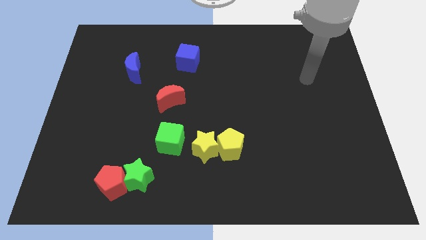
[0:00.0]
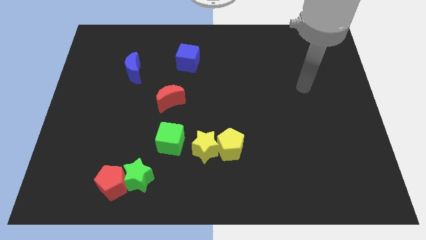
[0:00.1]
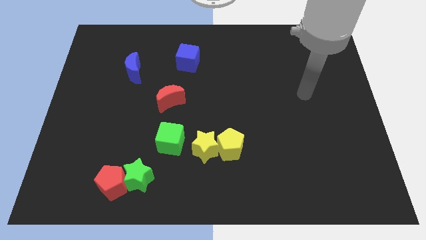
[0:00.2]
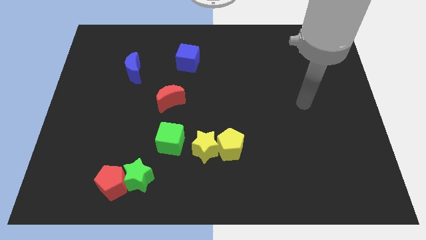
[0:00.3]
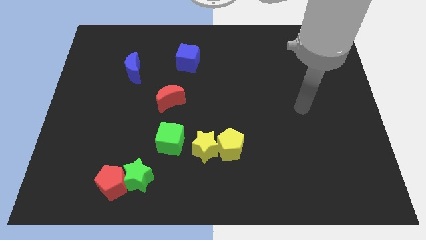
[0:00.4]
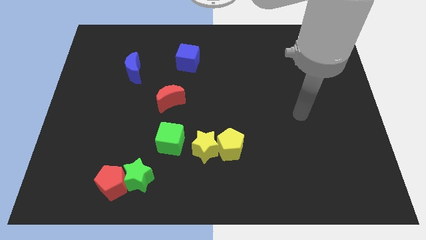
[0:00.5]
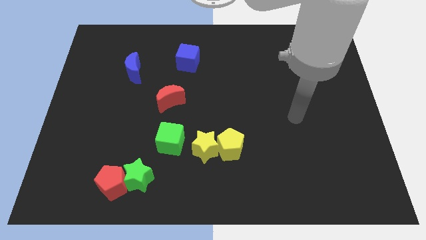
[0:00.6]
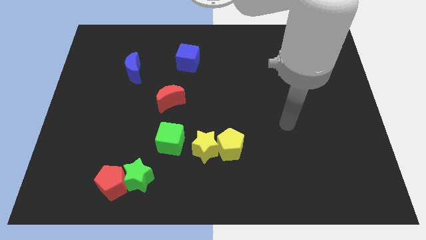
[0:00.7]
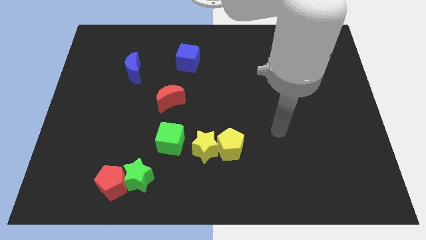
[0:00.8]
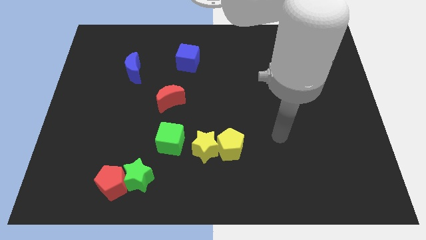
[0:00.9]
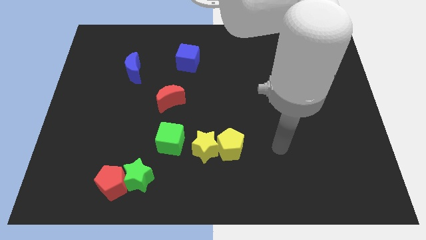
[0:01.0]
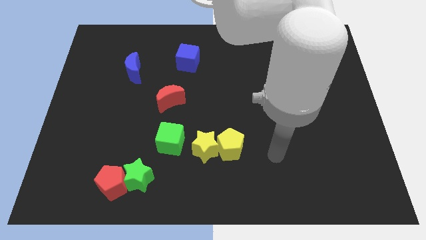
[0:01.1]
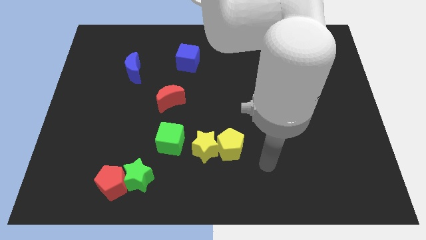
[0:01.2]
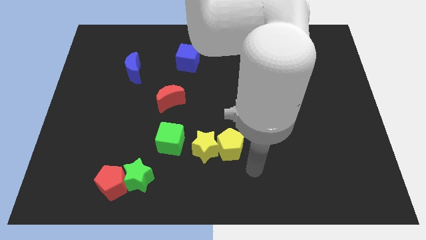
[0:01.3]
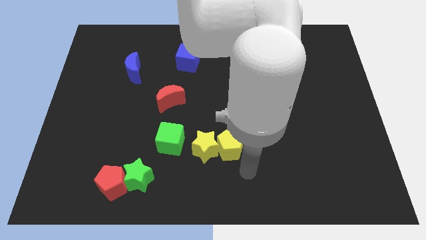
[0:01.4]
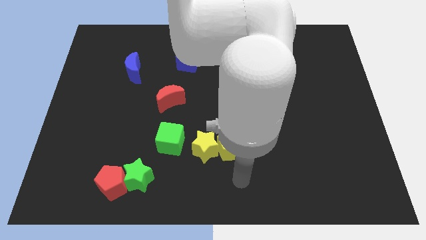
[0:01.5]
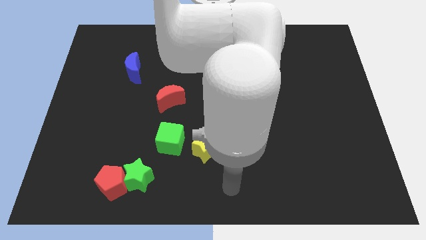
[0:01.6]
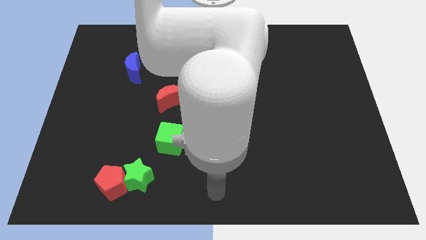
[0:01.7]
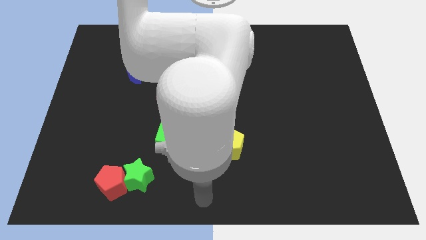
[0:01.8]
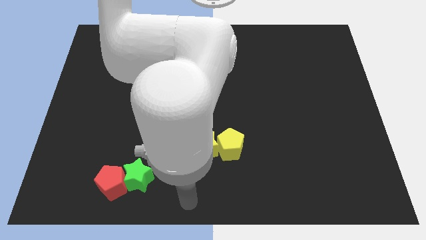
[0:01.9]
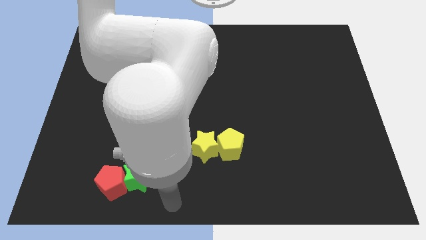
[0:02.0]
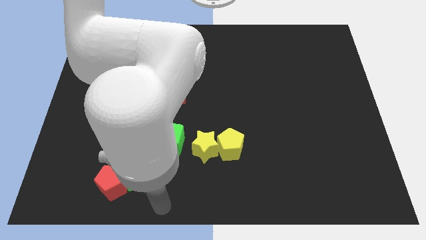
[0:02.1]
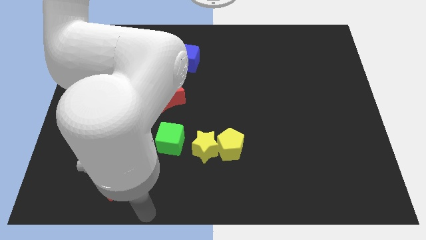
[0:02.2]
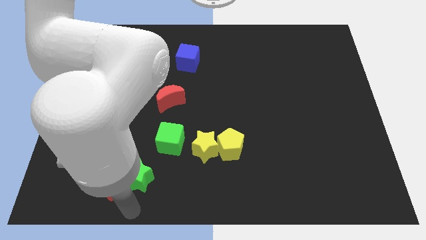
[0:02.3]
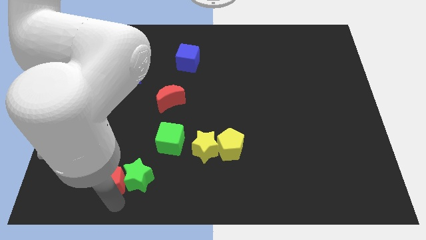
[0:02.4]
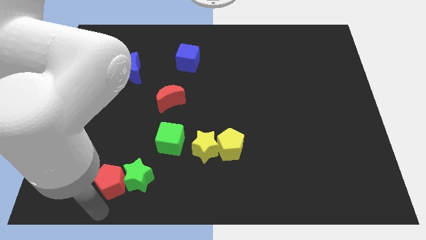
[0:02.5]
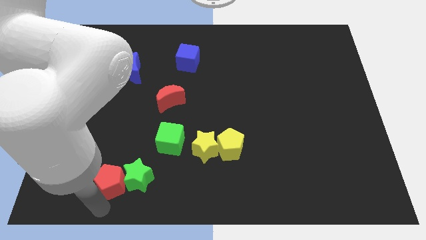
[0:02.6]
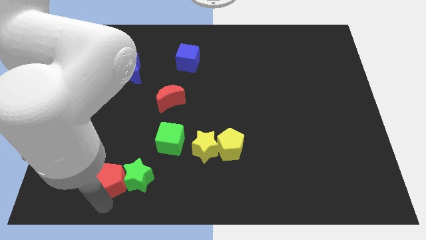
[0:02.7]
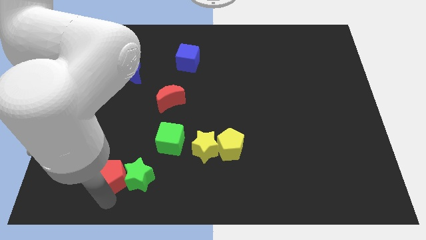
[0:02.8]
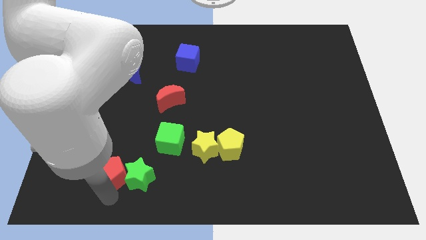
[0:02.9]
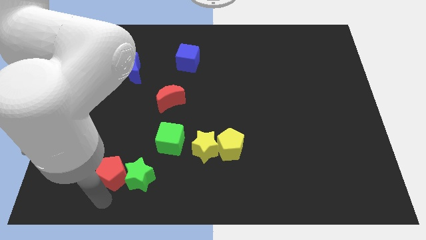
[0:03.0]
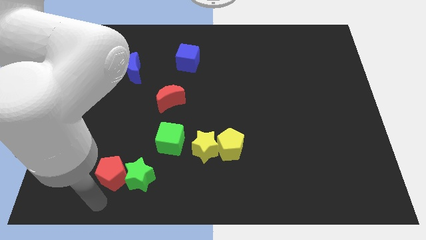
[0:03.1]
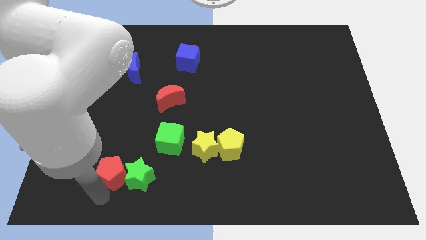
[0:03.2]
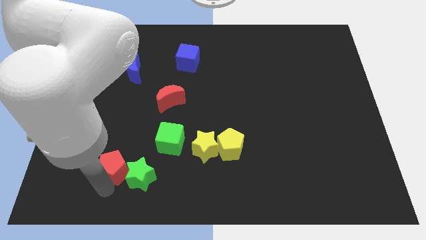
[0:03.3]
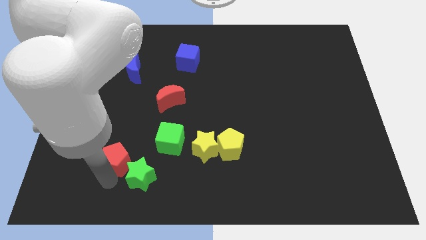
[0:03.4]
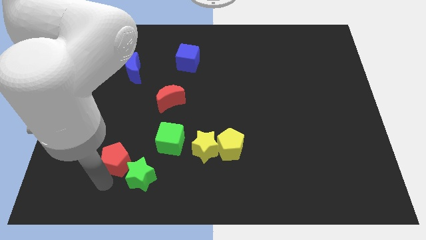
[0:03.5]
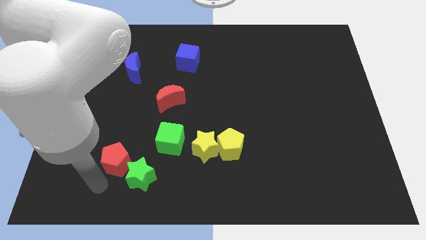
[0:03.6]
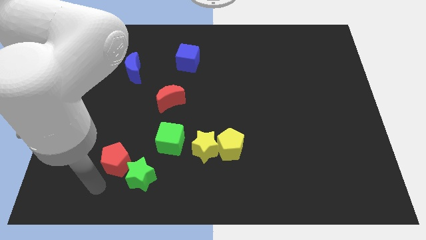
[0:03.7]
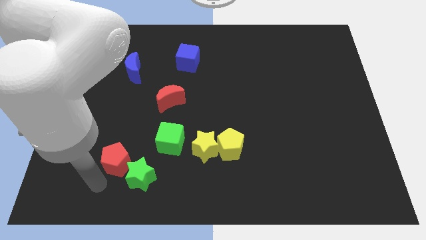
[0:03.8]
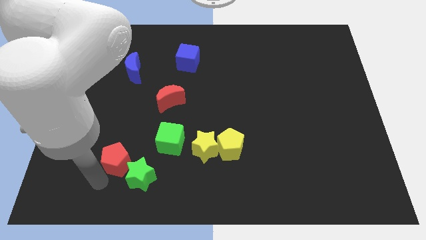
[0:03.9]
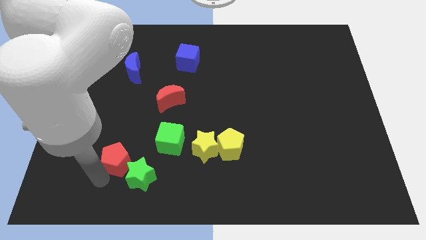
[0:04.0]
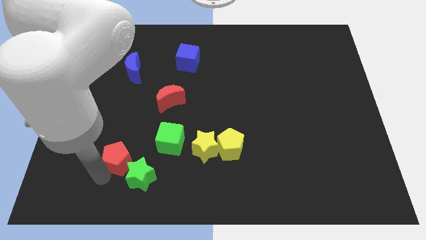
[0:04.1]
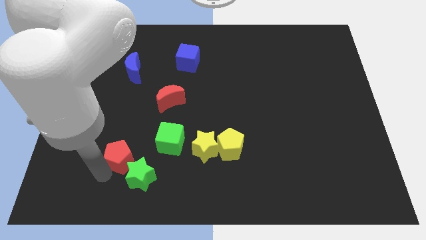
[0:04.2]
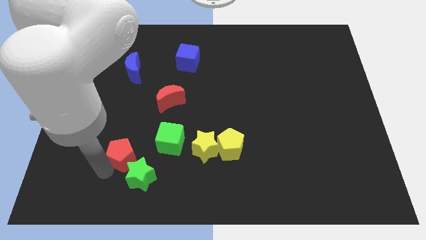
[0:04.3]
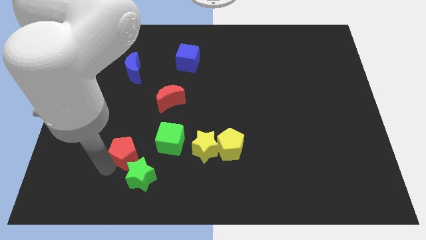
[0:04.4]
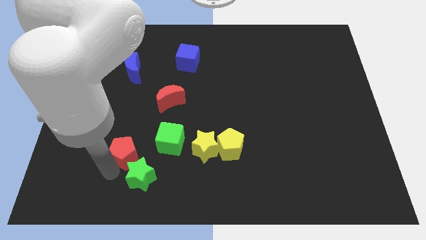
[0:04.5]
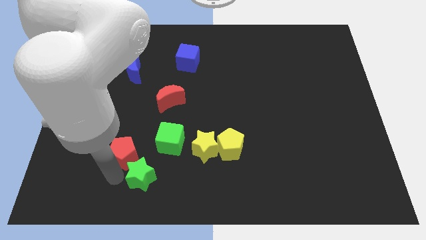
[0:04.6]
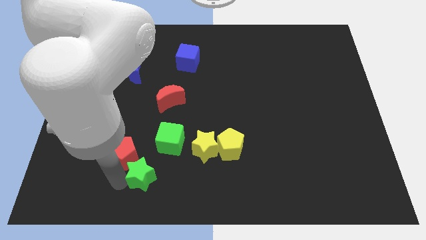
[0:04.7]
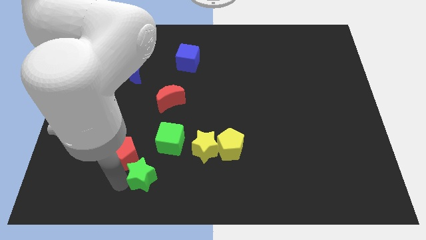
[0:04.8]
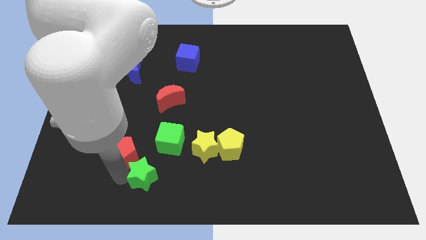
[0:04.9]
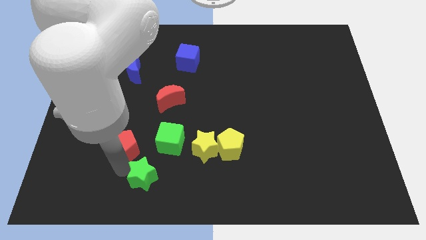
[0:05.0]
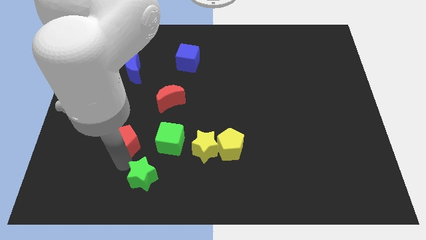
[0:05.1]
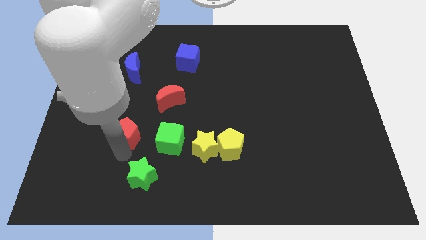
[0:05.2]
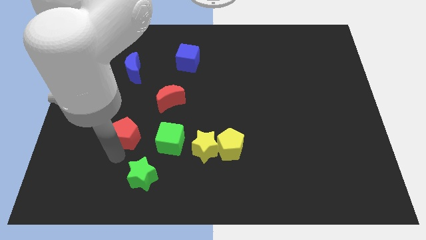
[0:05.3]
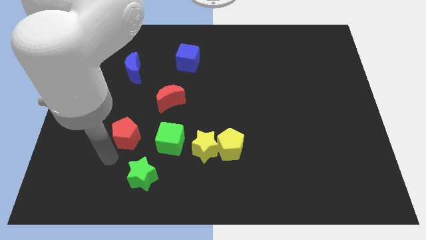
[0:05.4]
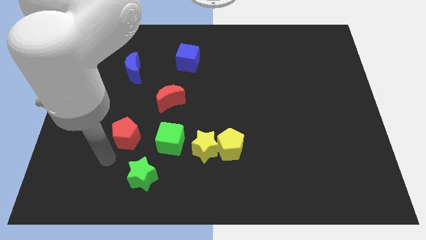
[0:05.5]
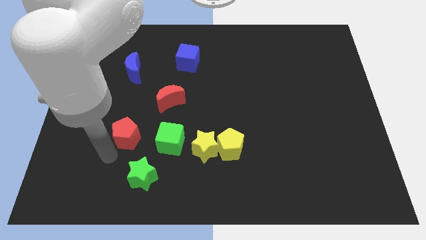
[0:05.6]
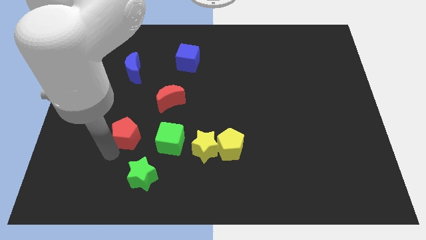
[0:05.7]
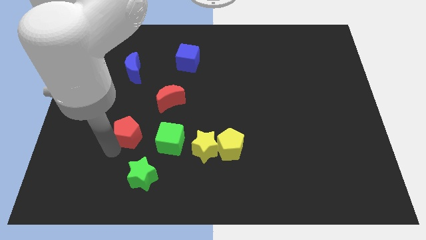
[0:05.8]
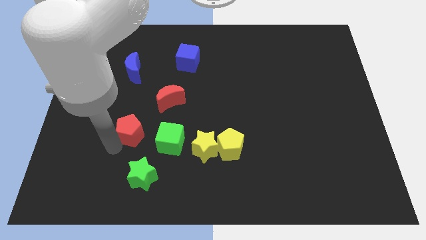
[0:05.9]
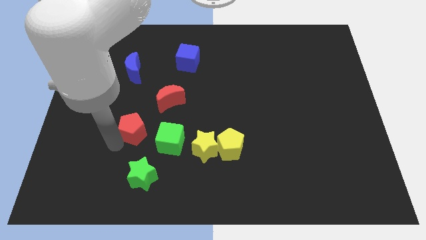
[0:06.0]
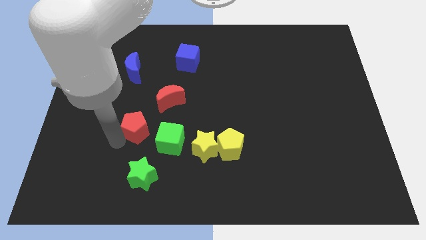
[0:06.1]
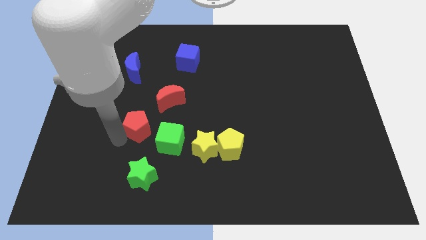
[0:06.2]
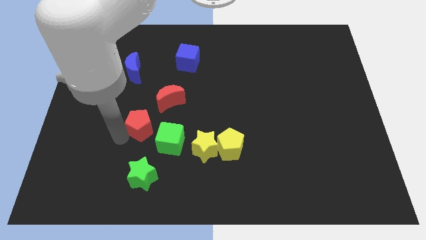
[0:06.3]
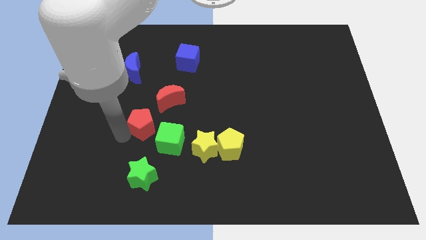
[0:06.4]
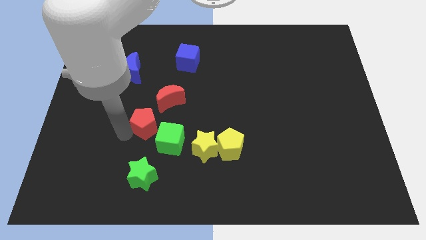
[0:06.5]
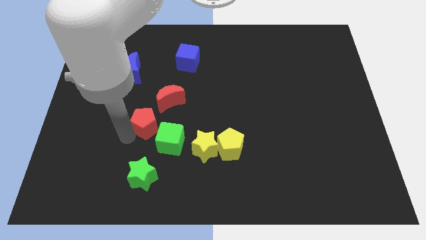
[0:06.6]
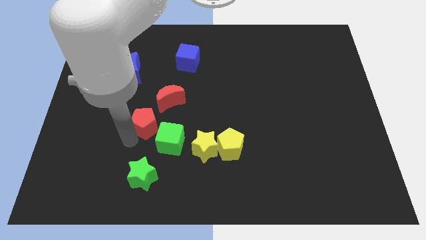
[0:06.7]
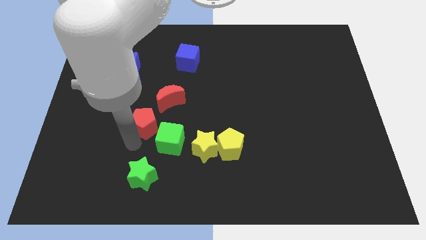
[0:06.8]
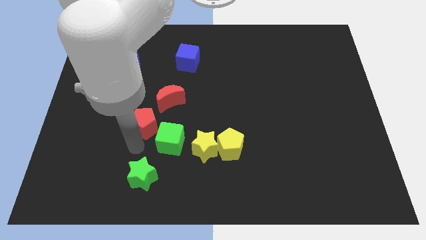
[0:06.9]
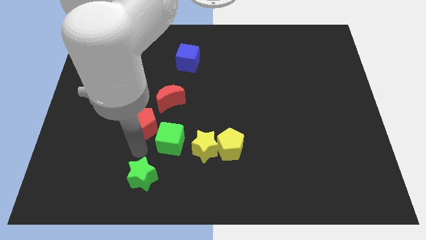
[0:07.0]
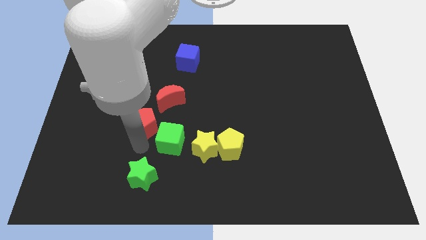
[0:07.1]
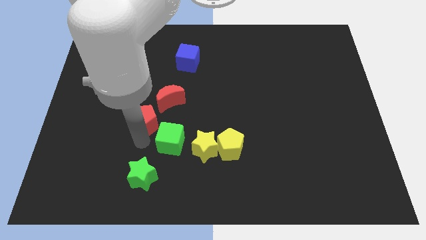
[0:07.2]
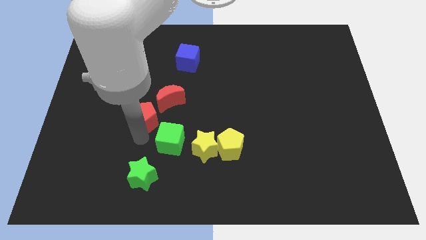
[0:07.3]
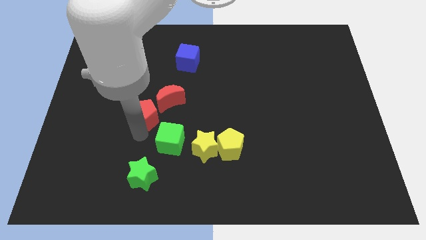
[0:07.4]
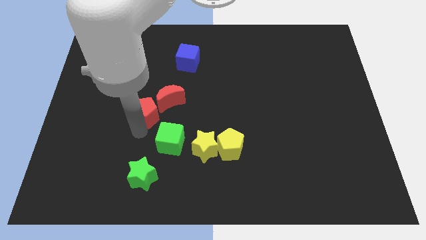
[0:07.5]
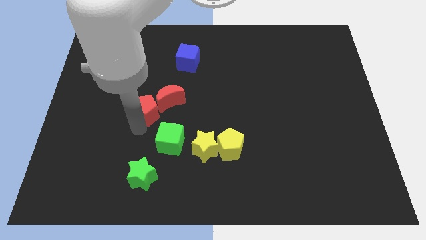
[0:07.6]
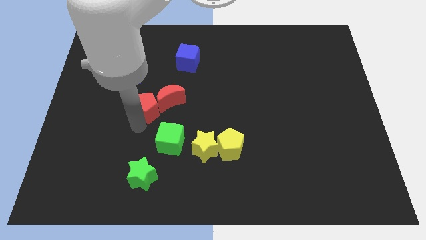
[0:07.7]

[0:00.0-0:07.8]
move the red pentagon close to the red moon
